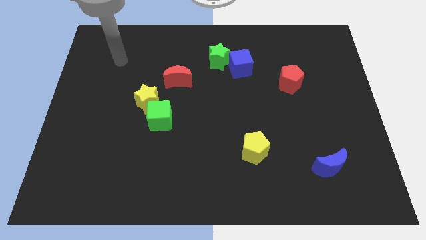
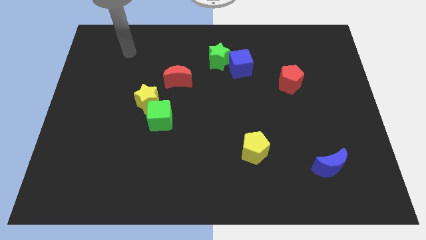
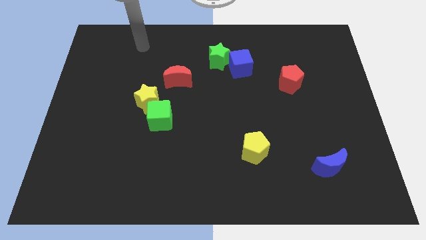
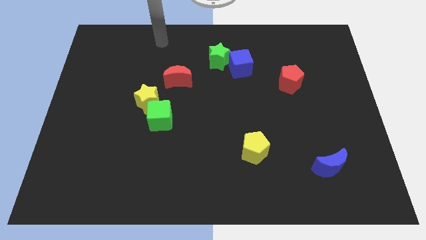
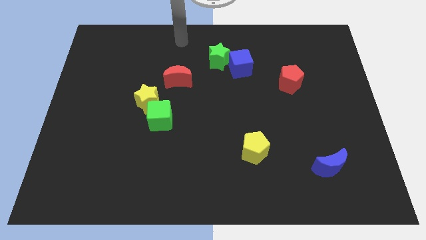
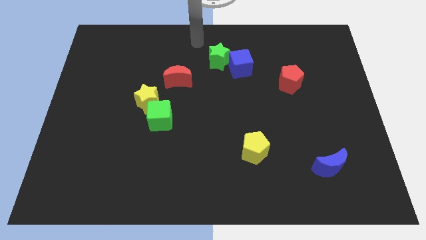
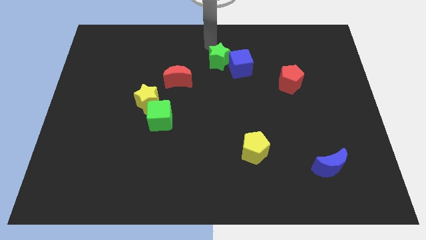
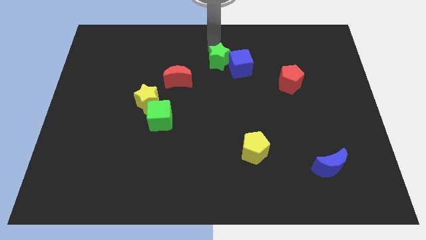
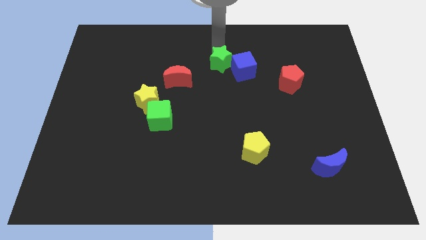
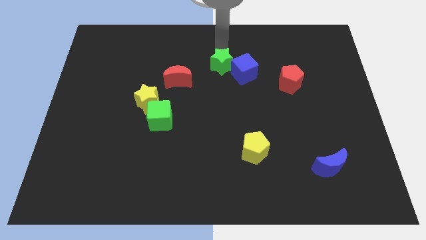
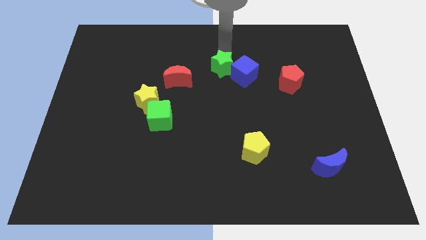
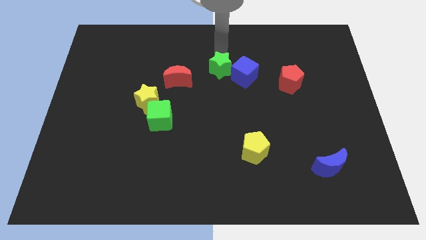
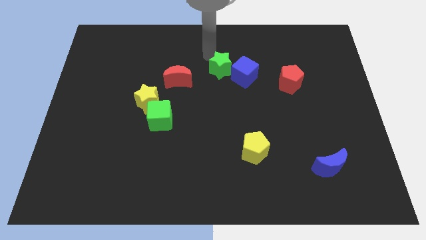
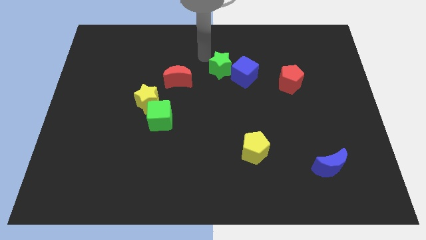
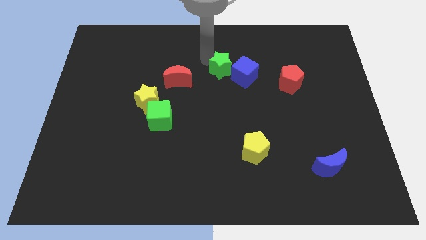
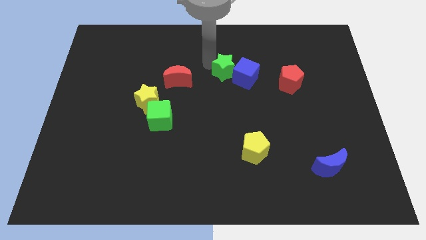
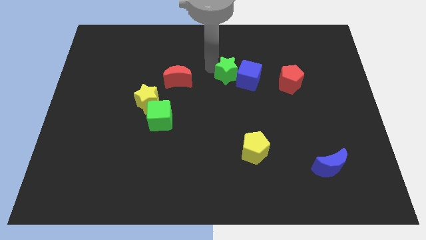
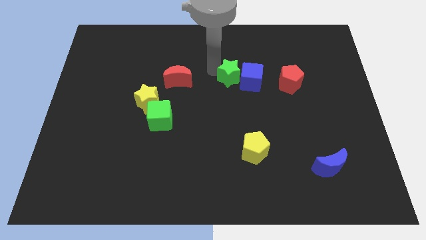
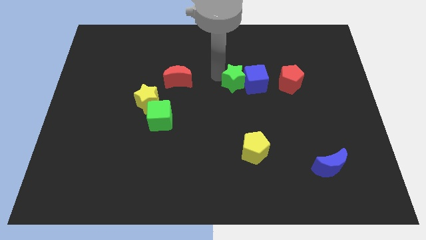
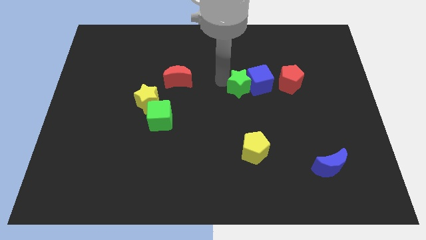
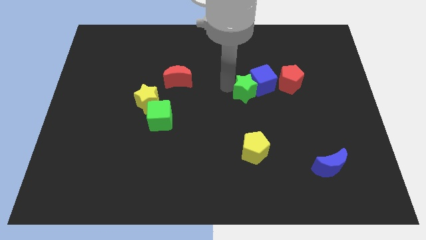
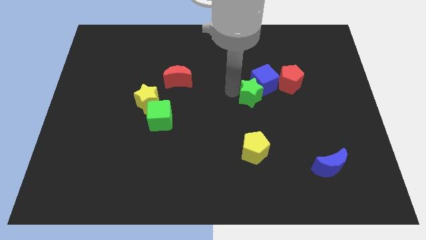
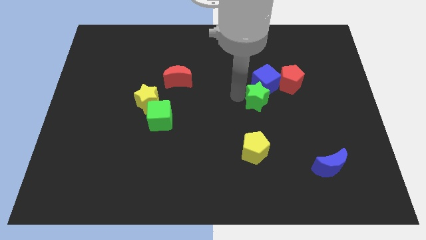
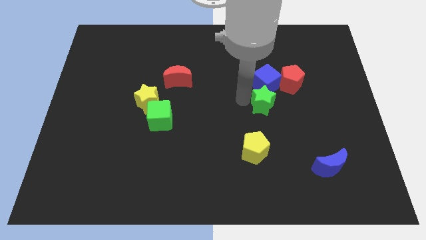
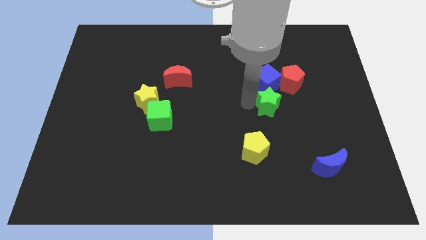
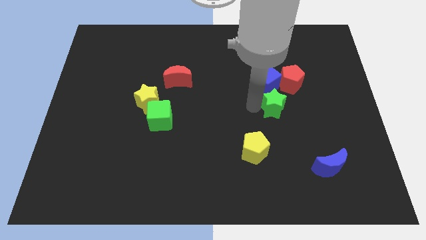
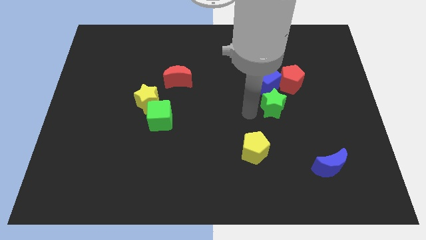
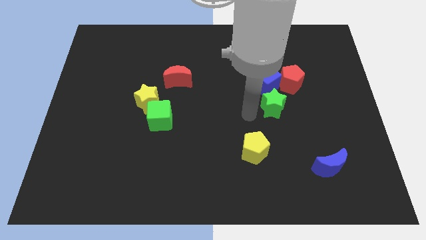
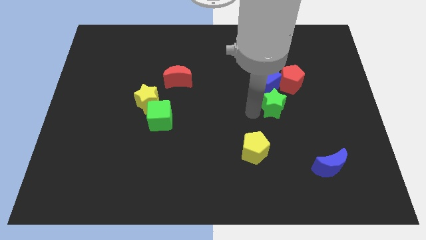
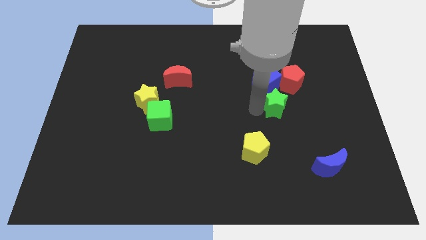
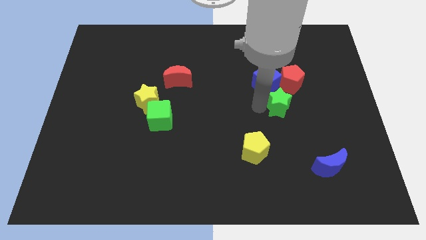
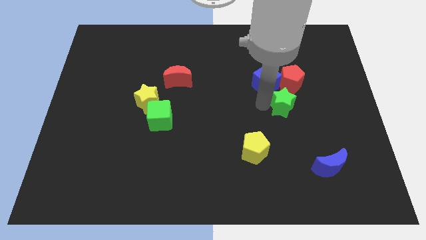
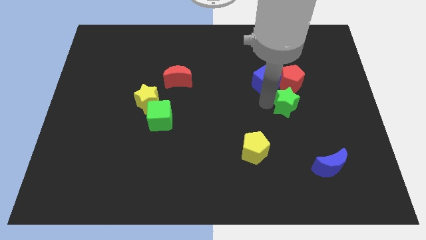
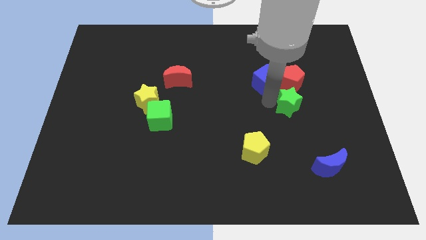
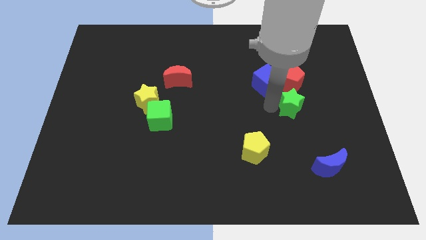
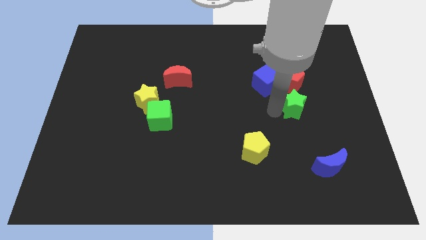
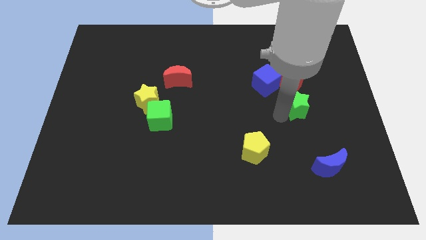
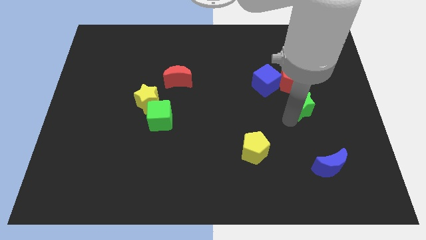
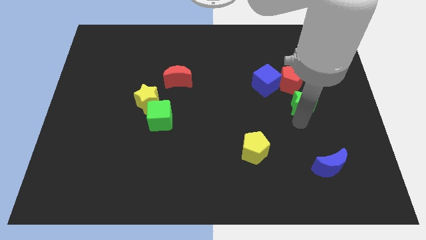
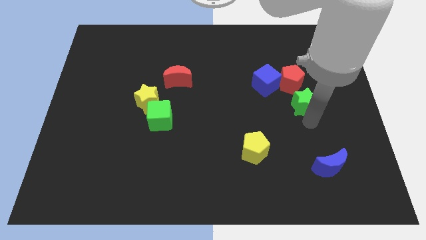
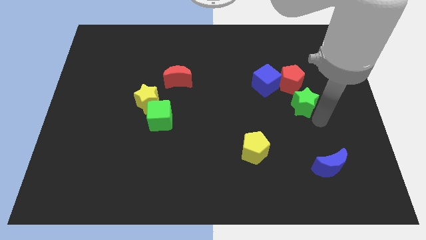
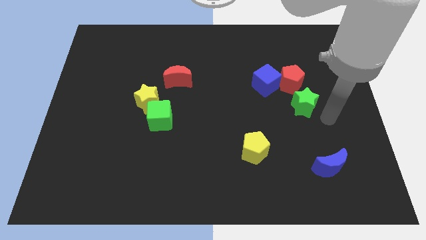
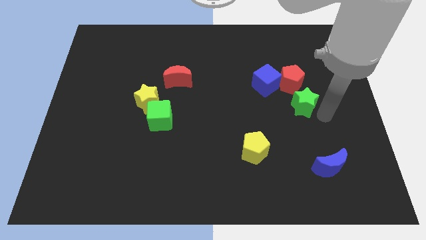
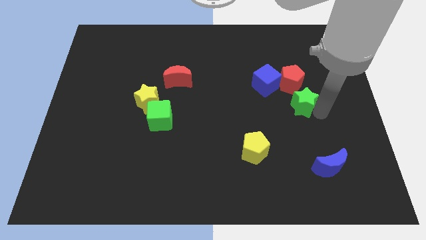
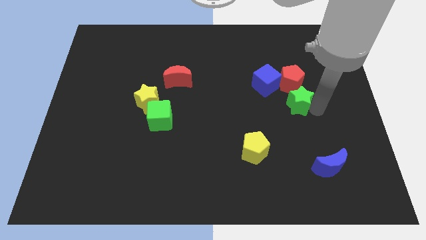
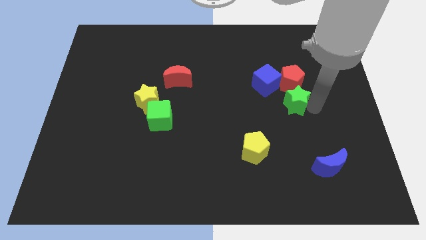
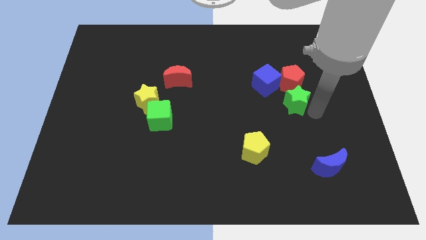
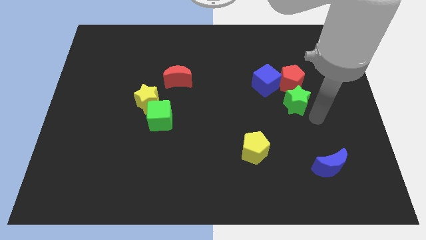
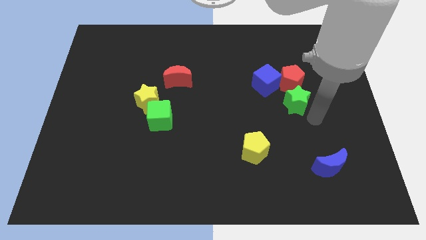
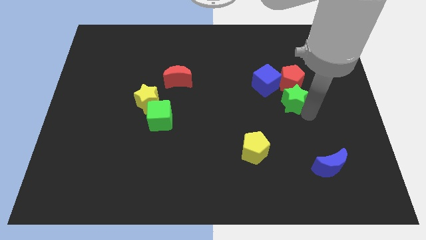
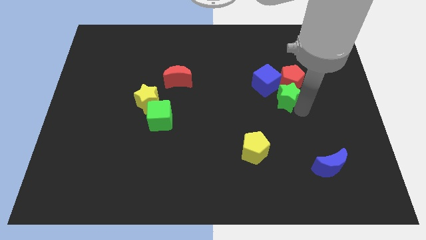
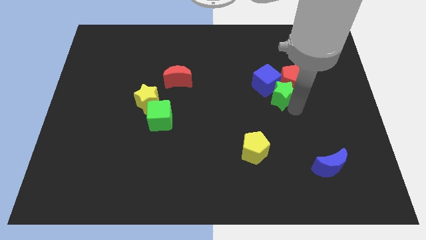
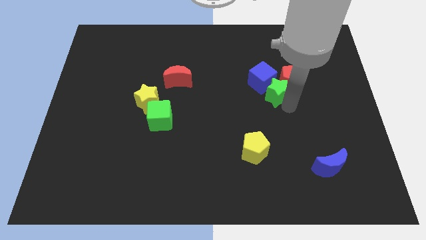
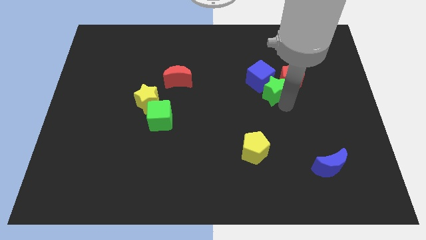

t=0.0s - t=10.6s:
push the green star to the bottom right of the blue cube

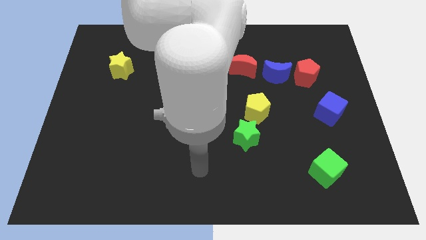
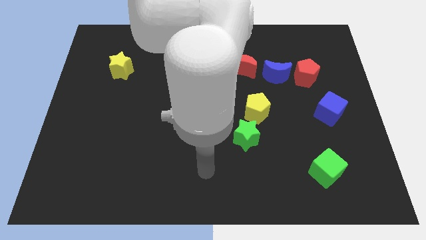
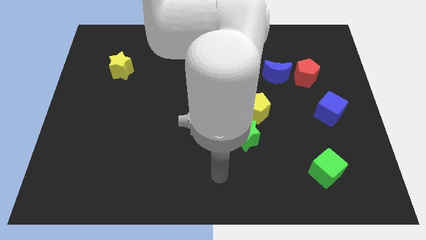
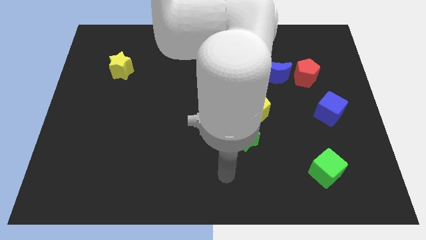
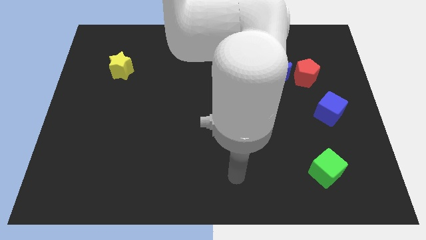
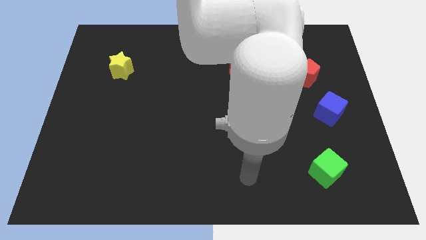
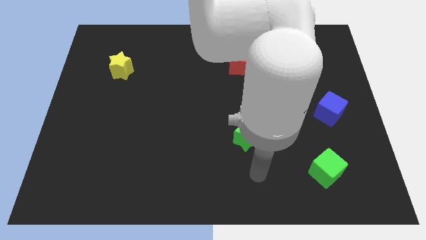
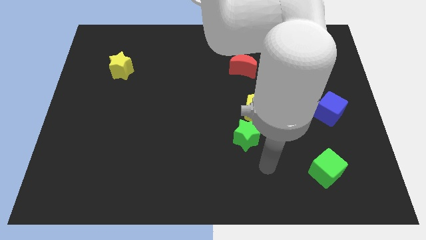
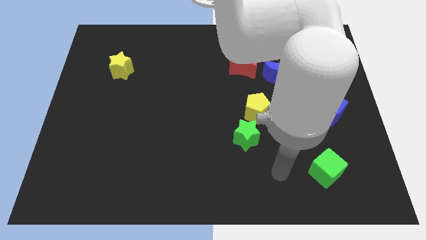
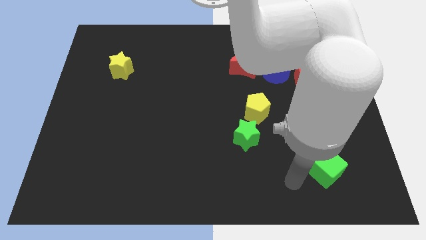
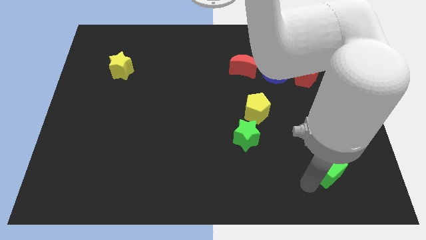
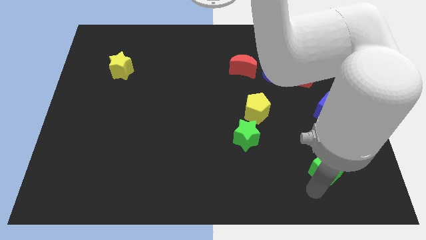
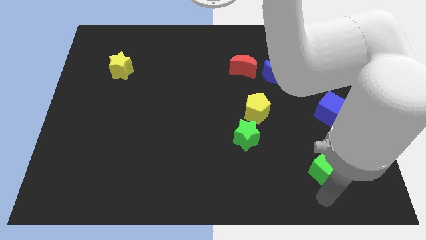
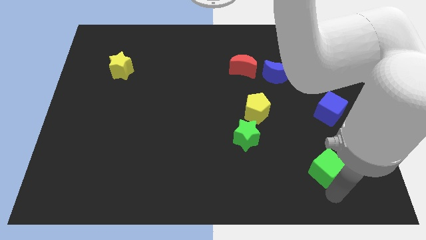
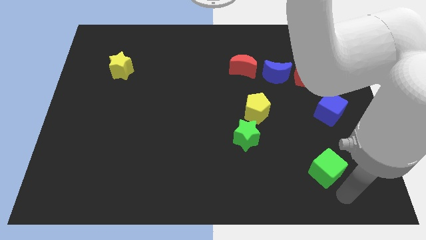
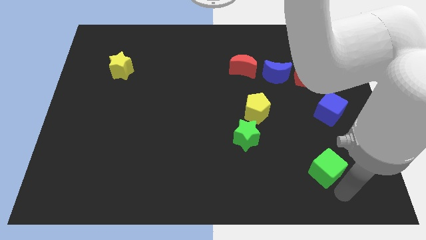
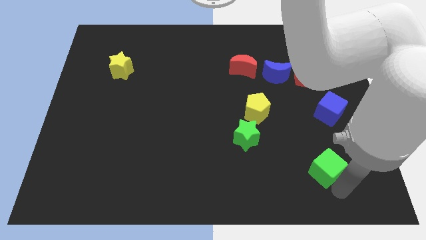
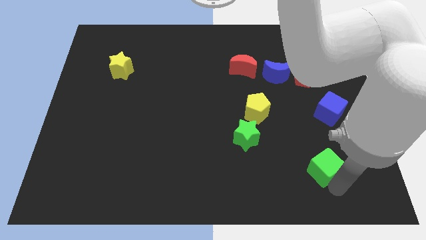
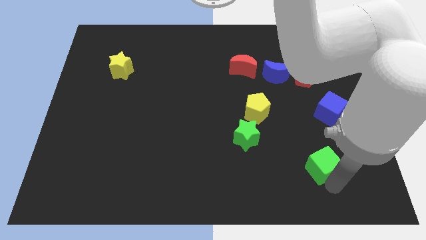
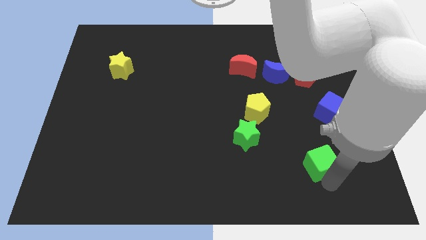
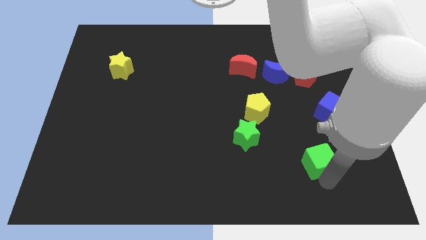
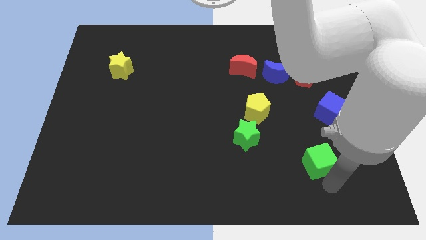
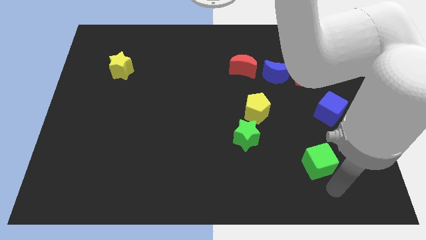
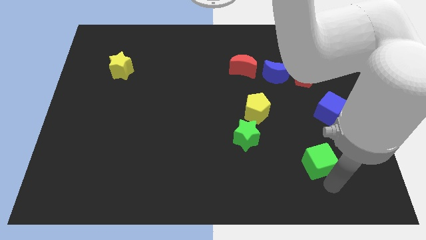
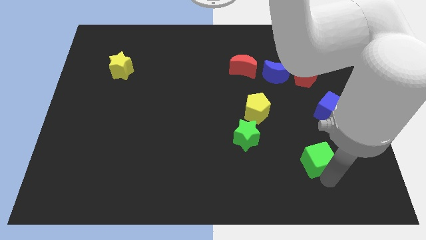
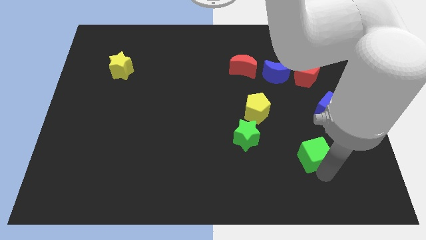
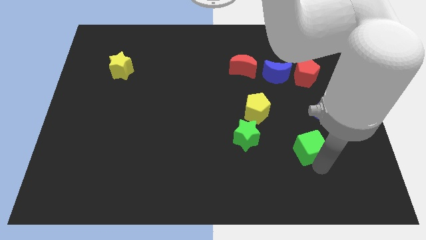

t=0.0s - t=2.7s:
move the green cube to the right of the green star
